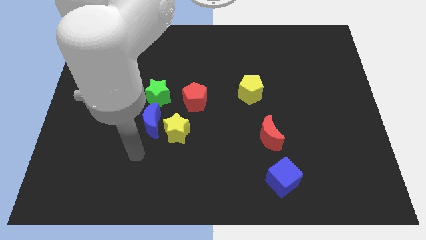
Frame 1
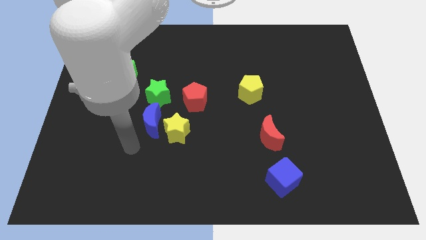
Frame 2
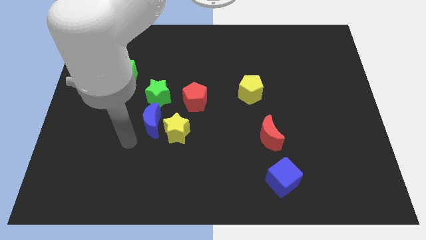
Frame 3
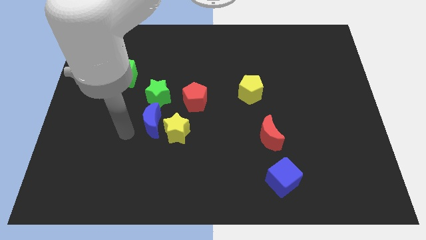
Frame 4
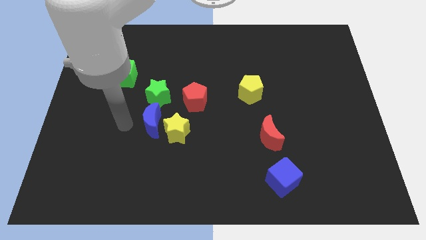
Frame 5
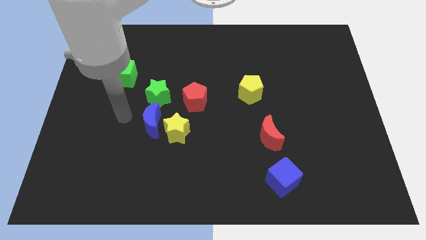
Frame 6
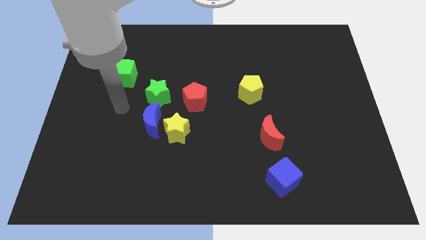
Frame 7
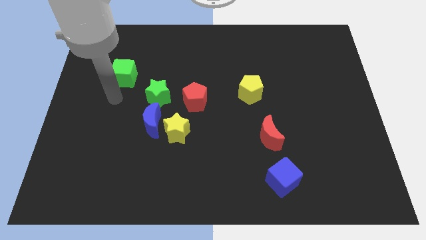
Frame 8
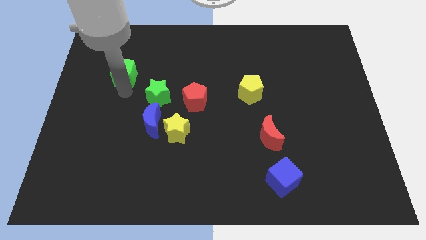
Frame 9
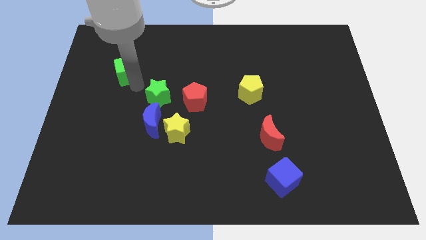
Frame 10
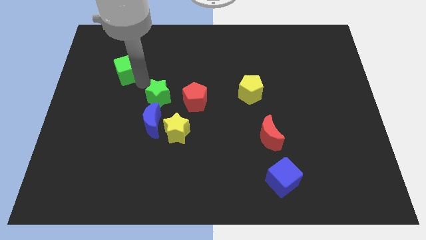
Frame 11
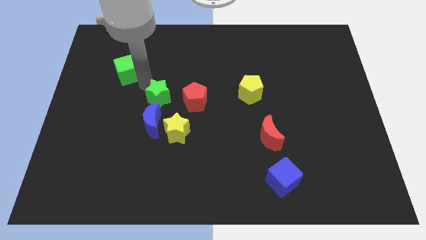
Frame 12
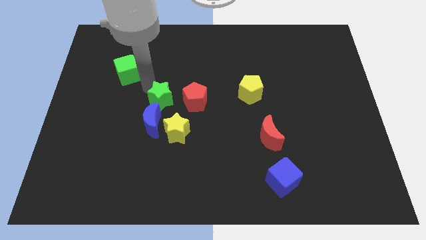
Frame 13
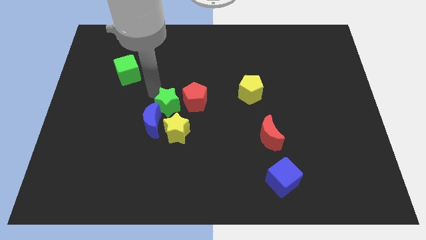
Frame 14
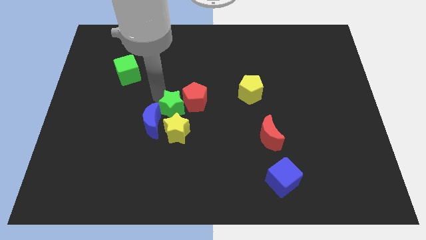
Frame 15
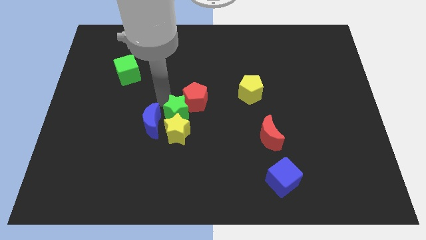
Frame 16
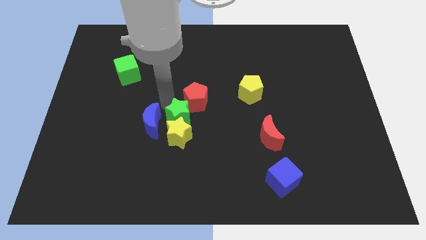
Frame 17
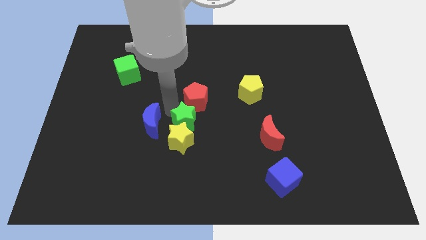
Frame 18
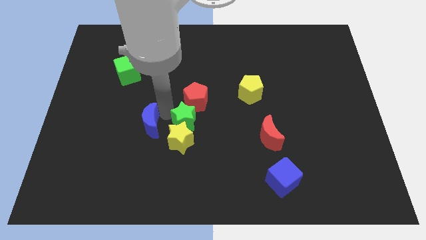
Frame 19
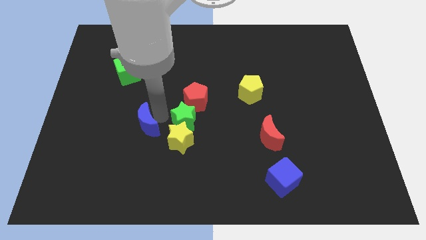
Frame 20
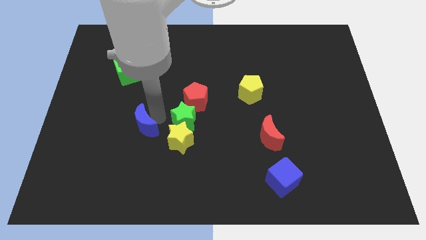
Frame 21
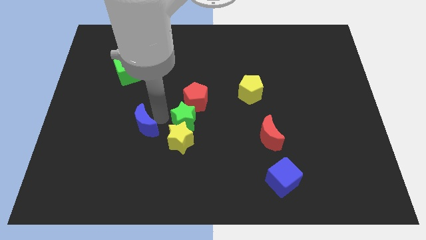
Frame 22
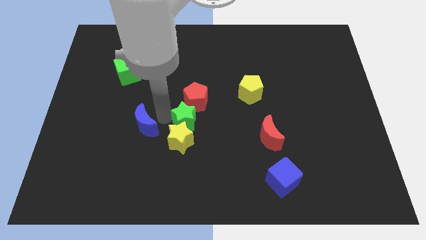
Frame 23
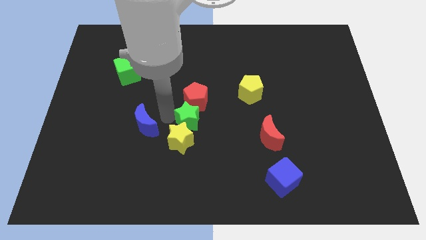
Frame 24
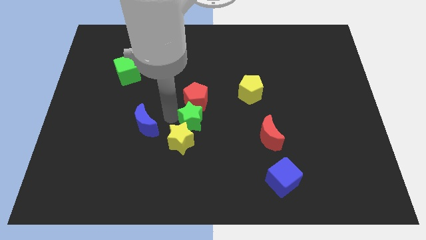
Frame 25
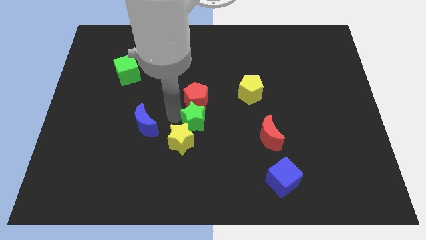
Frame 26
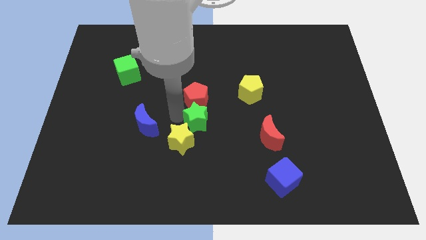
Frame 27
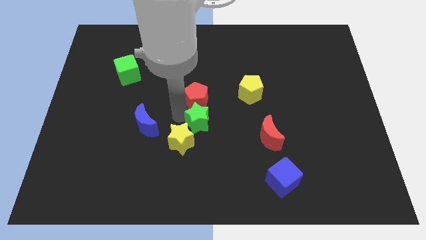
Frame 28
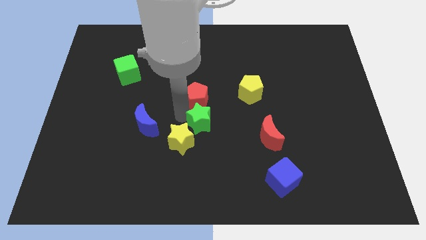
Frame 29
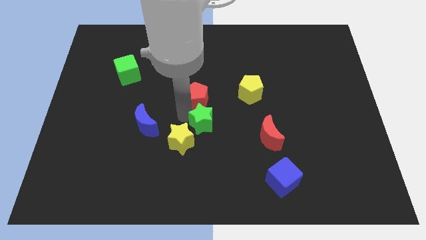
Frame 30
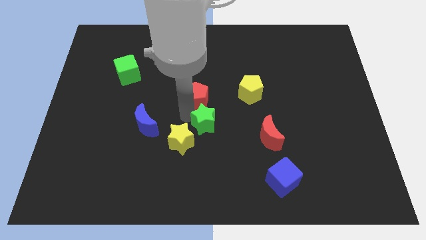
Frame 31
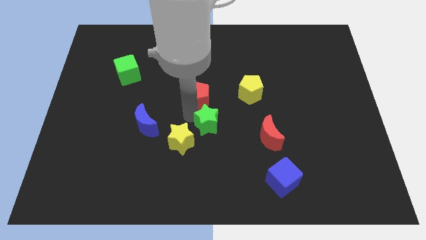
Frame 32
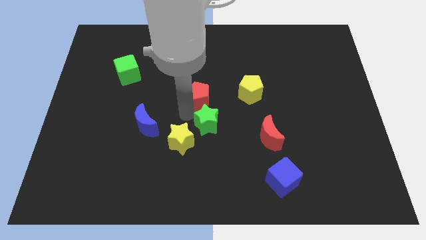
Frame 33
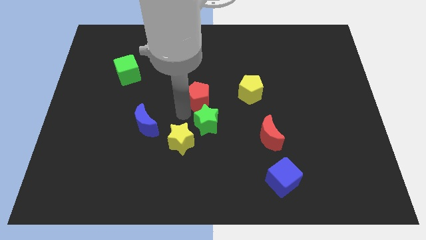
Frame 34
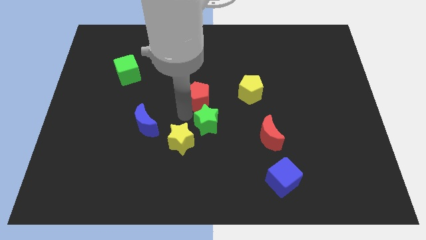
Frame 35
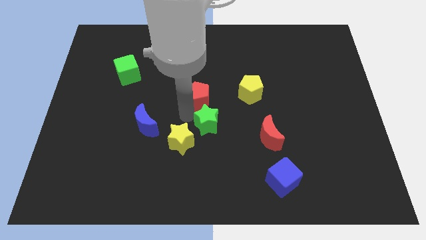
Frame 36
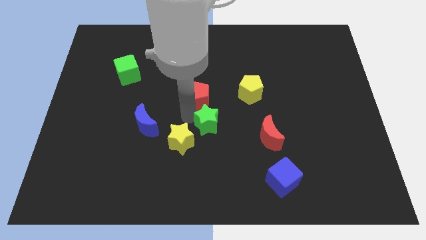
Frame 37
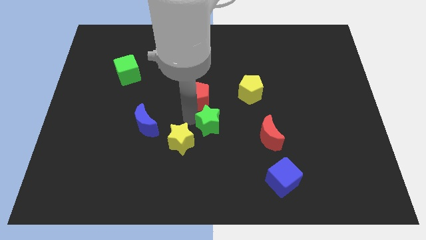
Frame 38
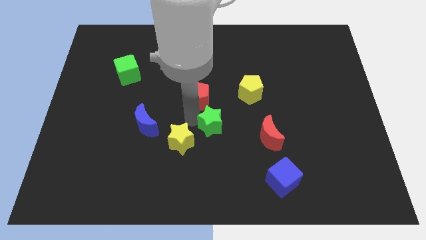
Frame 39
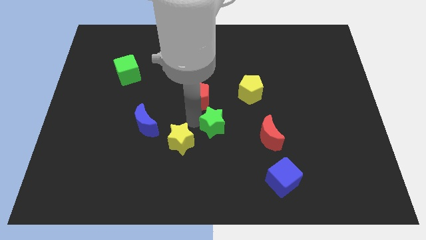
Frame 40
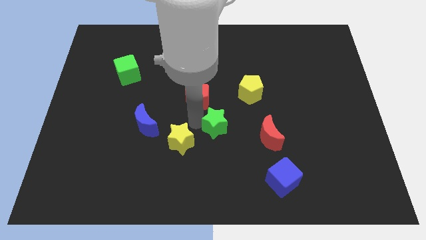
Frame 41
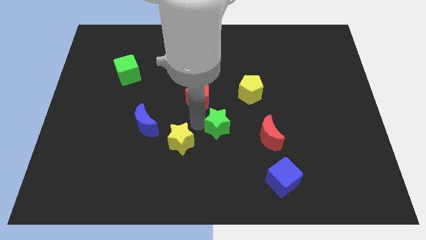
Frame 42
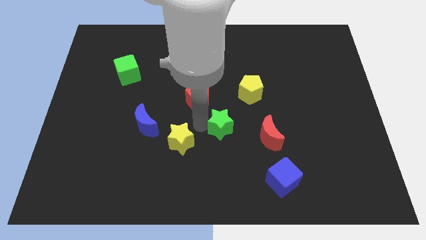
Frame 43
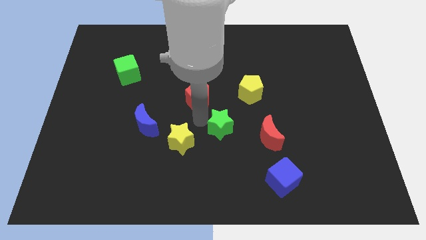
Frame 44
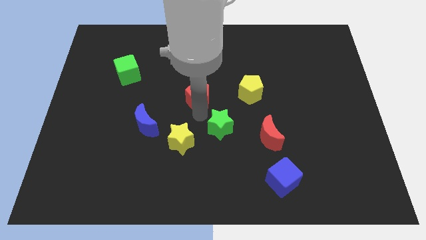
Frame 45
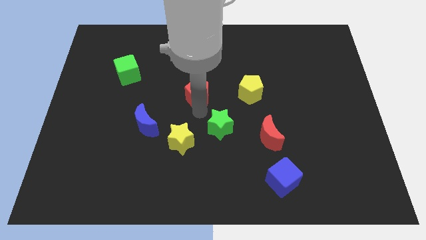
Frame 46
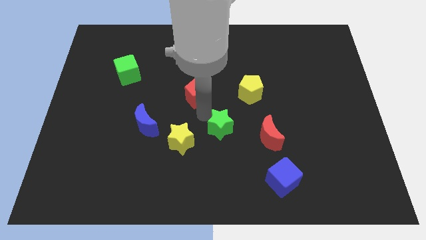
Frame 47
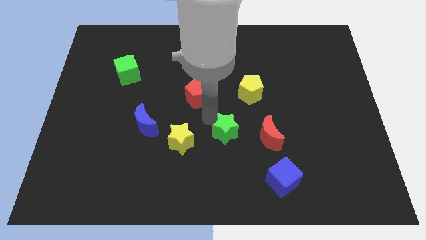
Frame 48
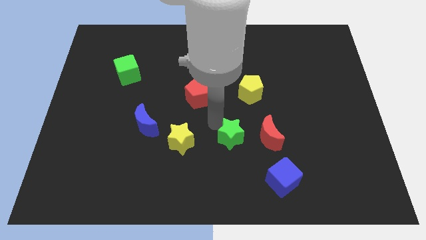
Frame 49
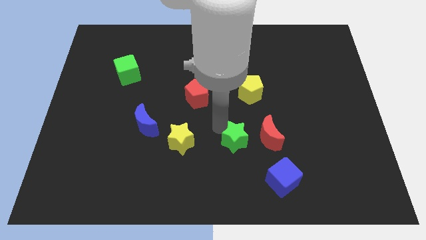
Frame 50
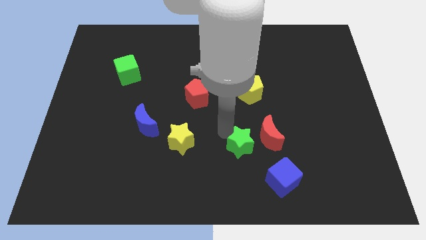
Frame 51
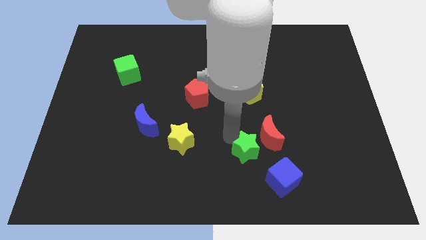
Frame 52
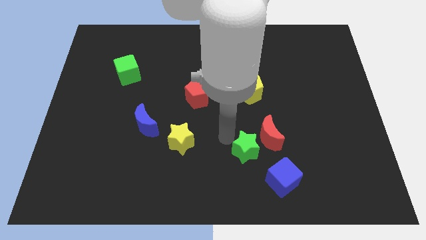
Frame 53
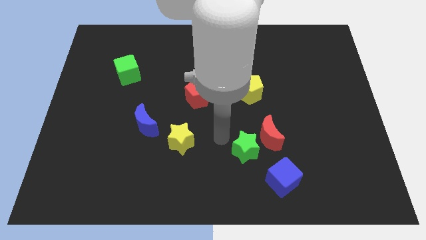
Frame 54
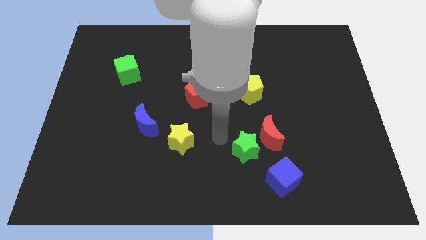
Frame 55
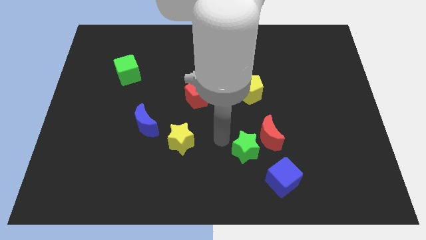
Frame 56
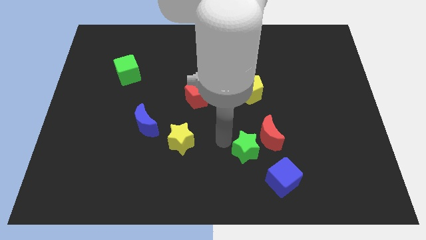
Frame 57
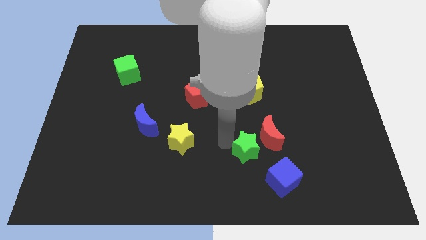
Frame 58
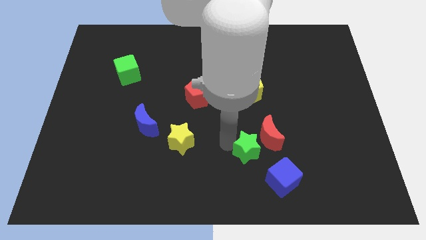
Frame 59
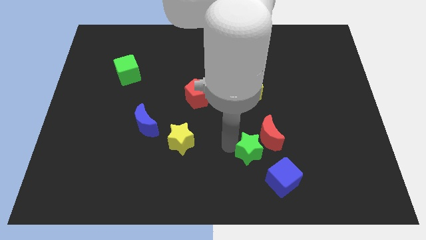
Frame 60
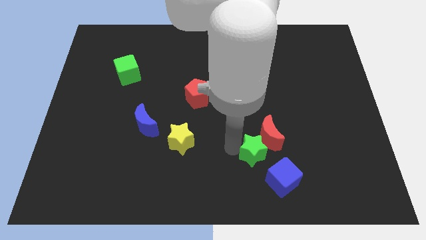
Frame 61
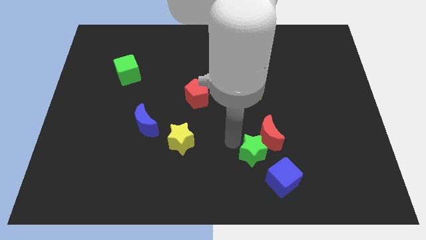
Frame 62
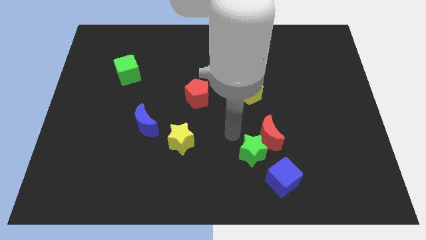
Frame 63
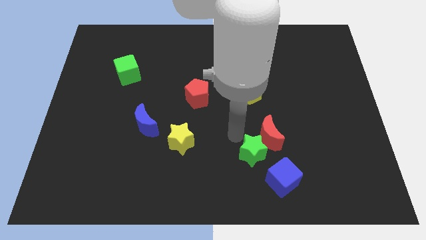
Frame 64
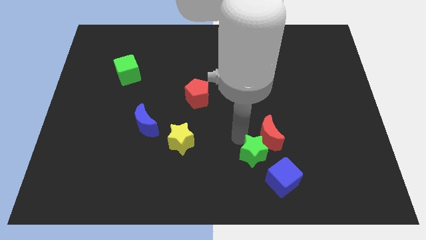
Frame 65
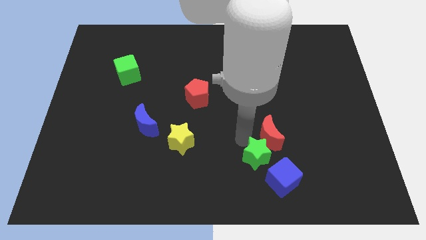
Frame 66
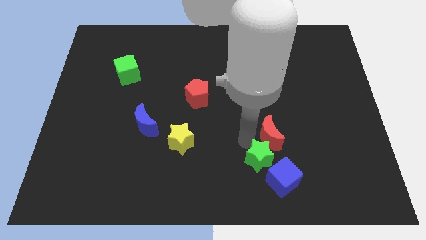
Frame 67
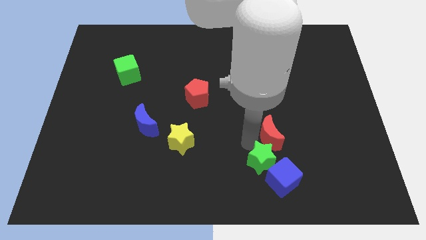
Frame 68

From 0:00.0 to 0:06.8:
put the green star to the blue cube
